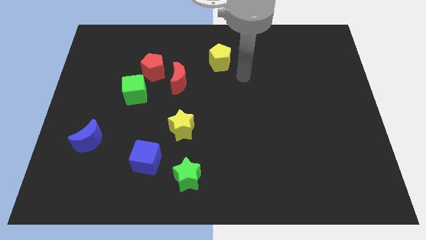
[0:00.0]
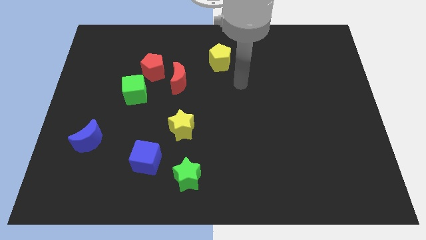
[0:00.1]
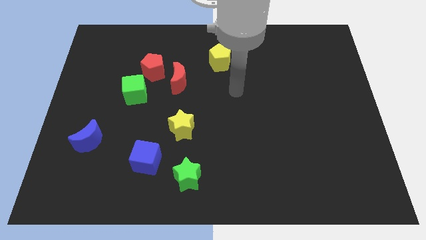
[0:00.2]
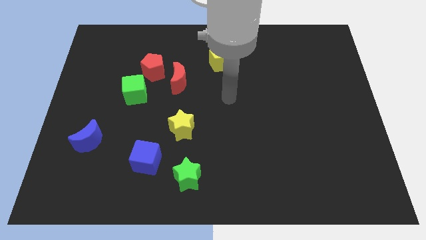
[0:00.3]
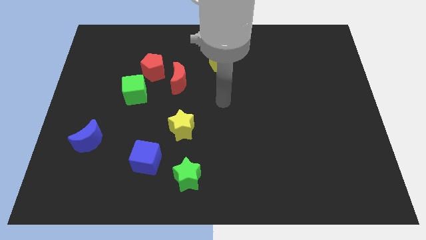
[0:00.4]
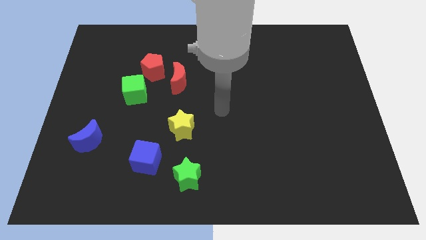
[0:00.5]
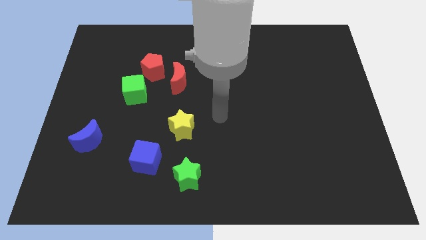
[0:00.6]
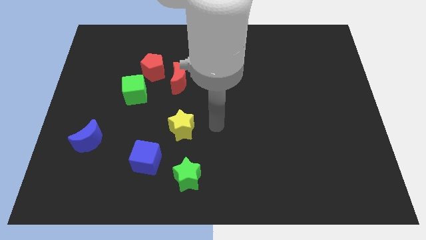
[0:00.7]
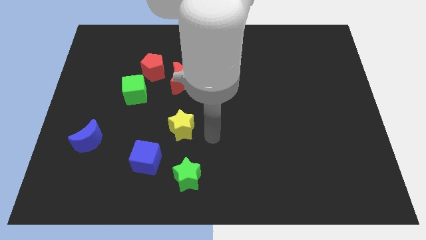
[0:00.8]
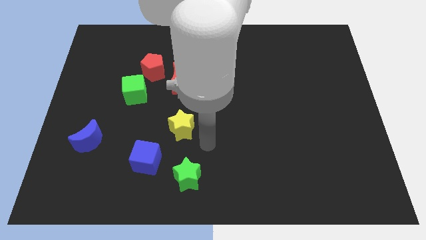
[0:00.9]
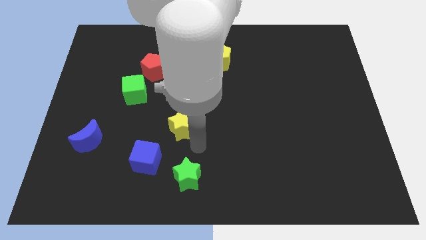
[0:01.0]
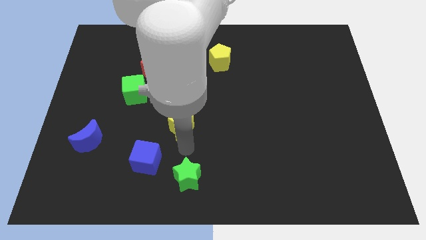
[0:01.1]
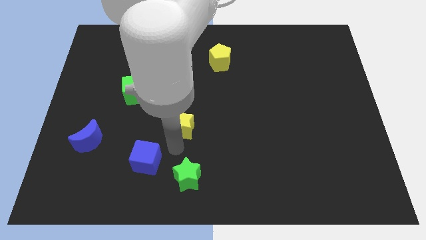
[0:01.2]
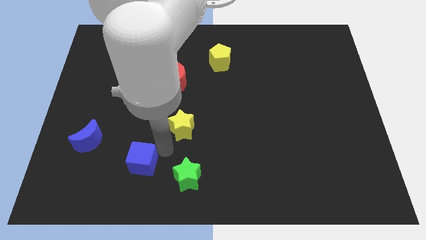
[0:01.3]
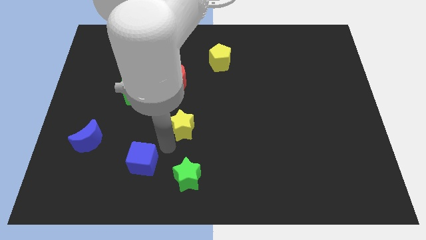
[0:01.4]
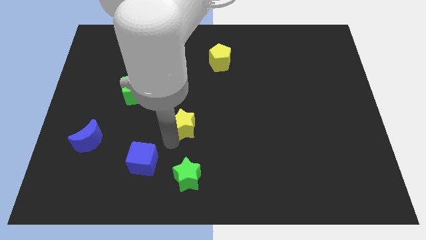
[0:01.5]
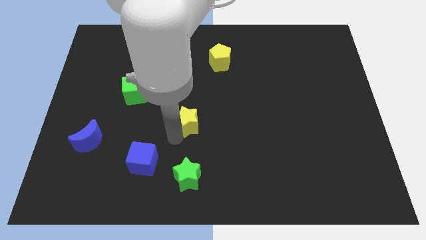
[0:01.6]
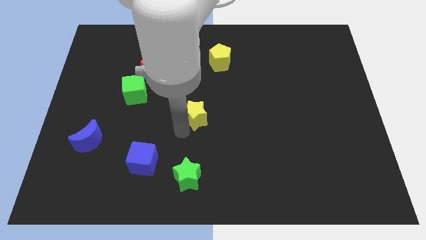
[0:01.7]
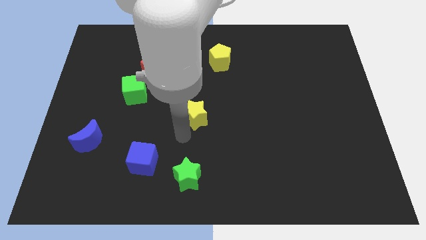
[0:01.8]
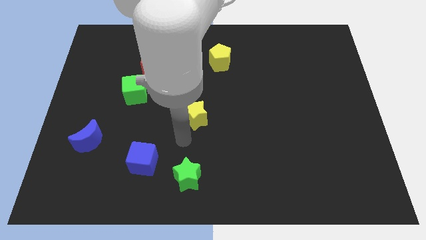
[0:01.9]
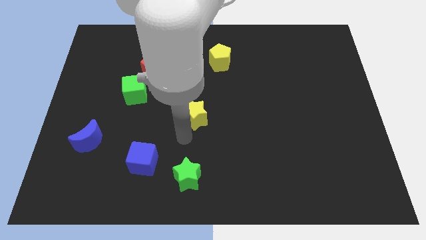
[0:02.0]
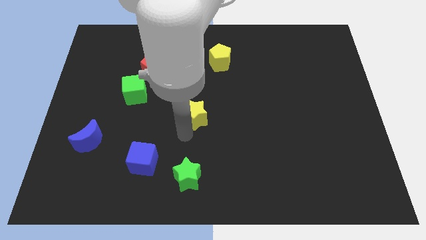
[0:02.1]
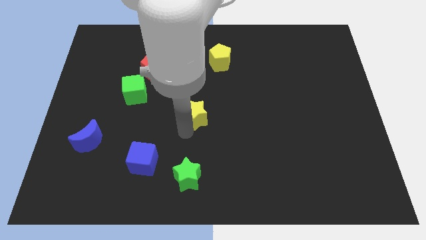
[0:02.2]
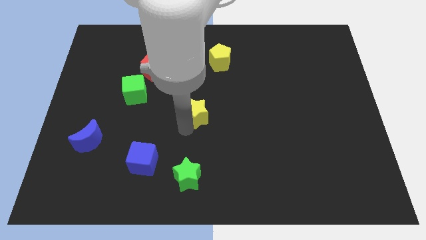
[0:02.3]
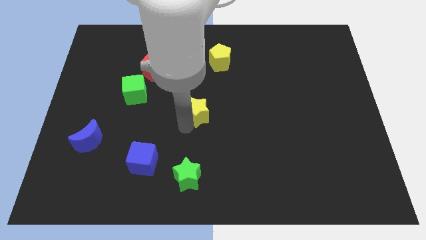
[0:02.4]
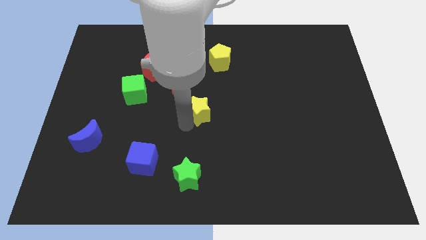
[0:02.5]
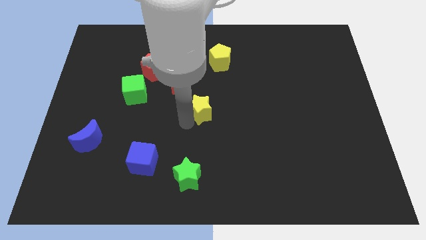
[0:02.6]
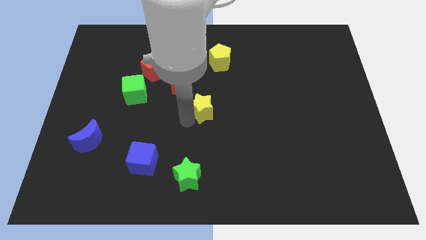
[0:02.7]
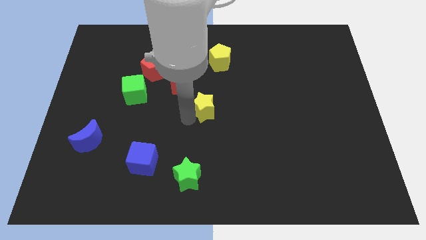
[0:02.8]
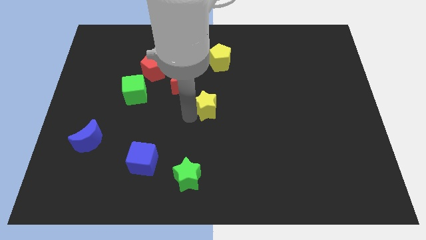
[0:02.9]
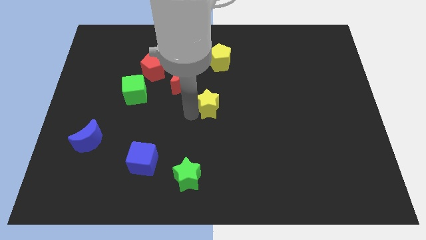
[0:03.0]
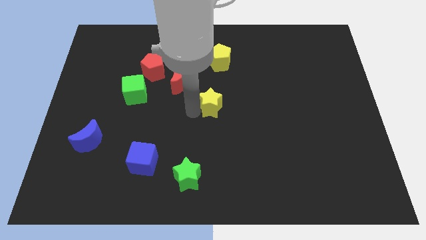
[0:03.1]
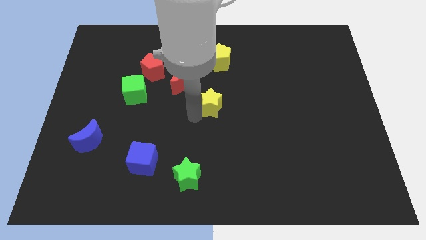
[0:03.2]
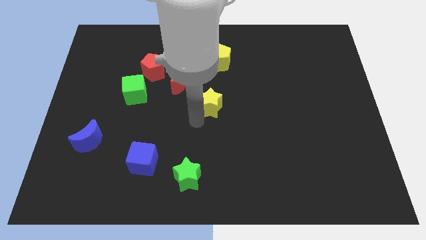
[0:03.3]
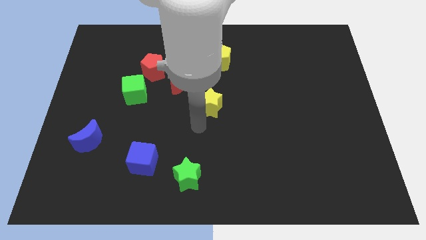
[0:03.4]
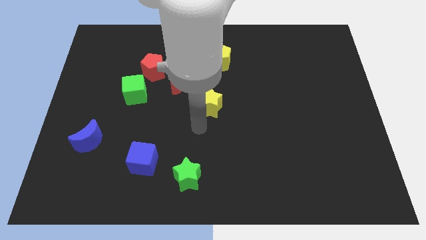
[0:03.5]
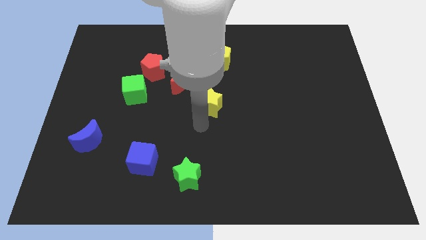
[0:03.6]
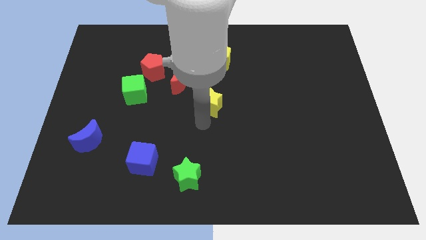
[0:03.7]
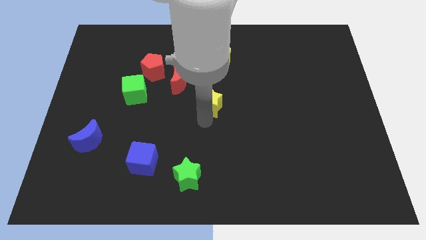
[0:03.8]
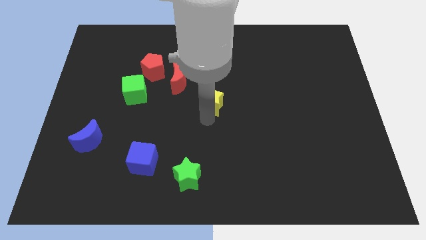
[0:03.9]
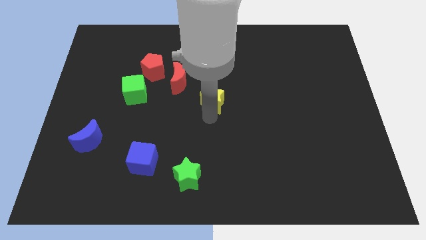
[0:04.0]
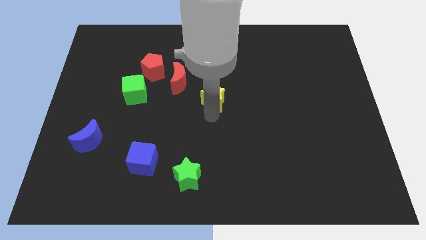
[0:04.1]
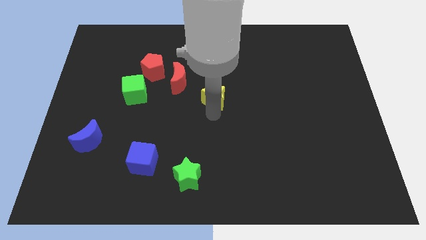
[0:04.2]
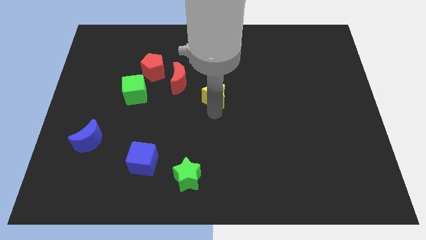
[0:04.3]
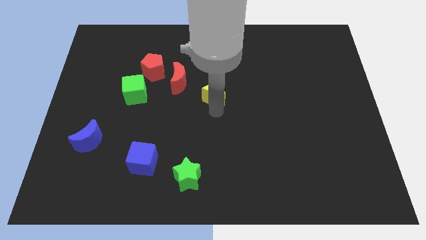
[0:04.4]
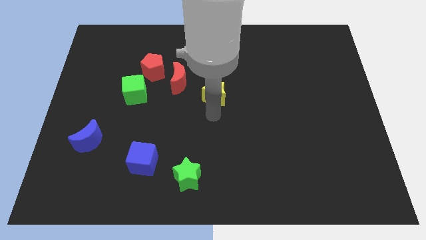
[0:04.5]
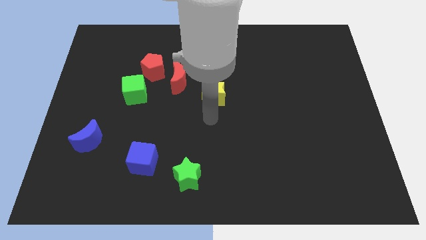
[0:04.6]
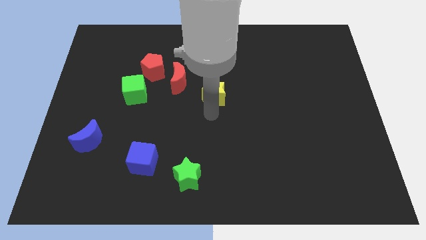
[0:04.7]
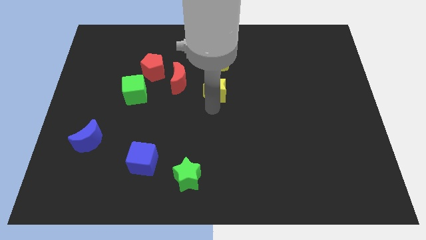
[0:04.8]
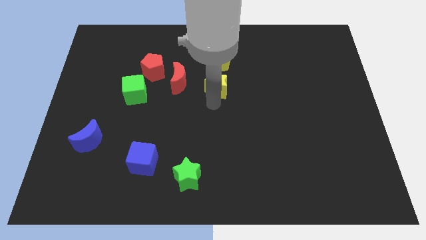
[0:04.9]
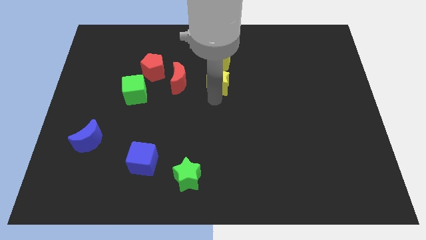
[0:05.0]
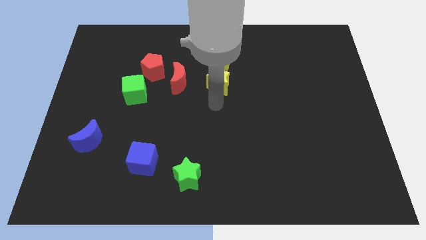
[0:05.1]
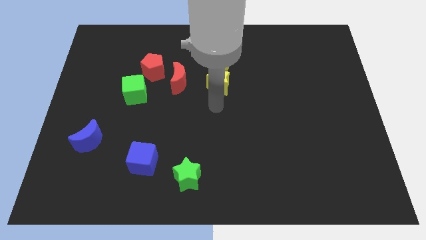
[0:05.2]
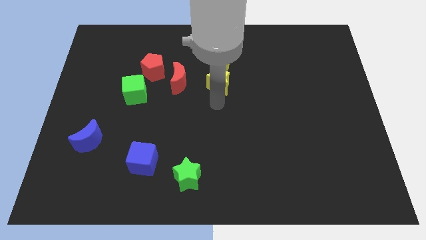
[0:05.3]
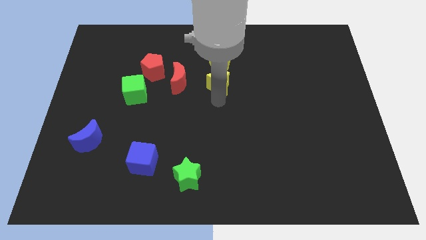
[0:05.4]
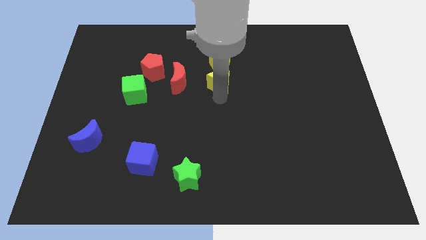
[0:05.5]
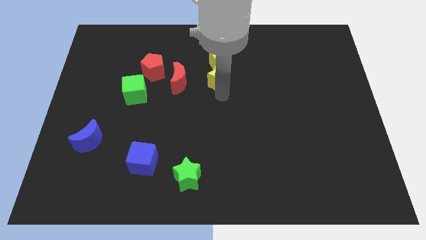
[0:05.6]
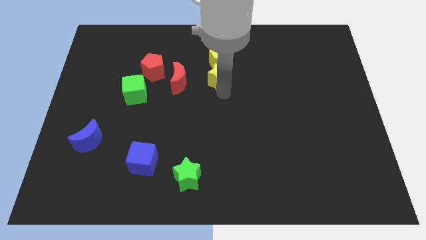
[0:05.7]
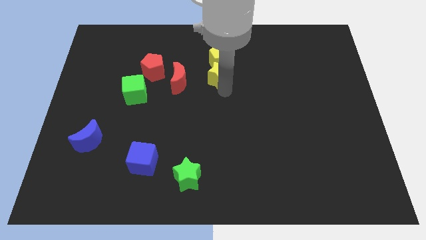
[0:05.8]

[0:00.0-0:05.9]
put the yellow star next to the yellow pentagon

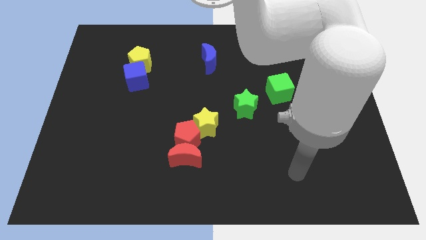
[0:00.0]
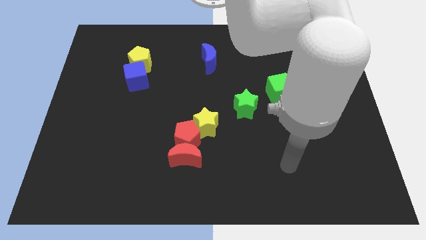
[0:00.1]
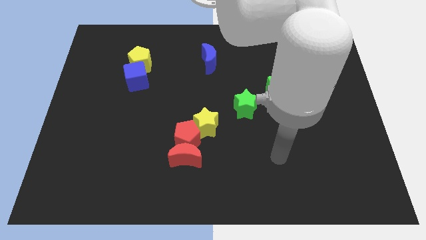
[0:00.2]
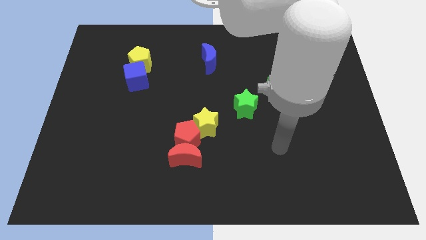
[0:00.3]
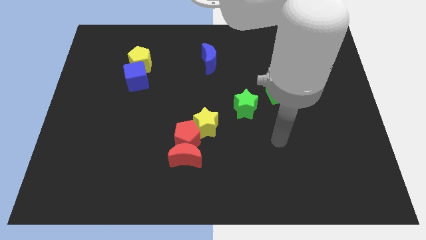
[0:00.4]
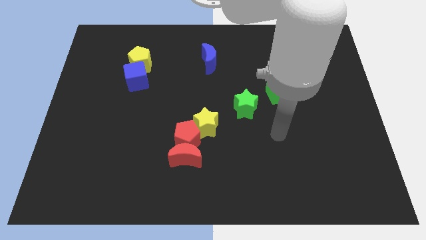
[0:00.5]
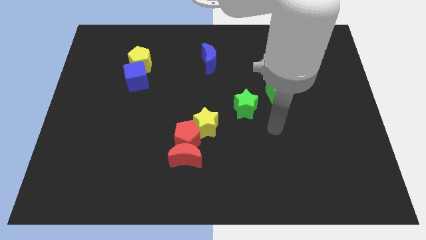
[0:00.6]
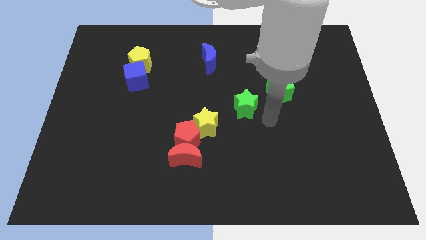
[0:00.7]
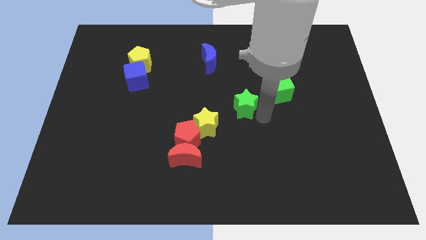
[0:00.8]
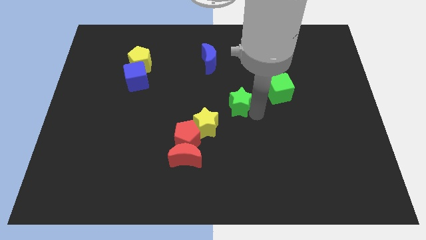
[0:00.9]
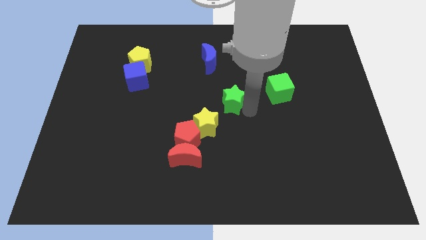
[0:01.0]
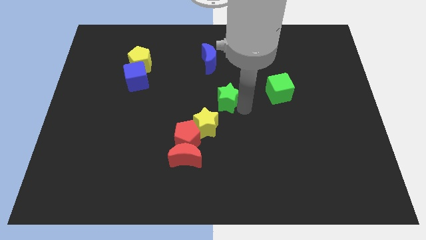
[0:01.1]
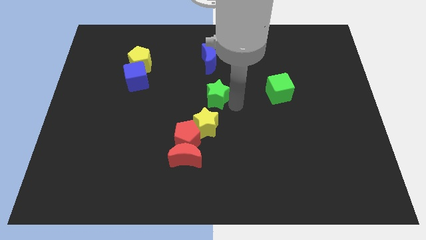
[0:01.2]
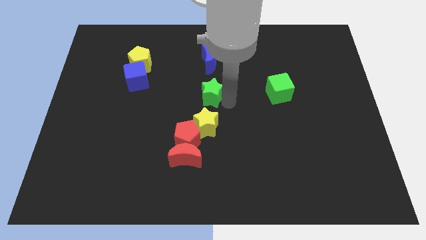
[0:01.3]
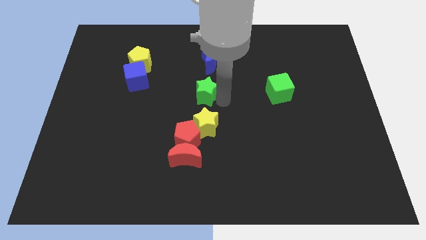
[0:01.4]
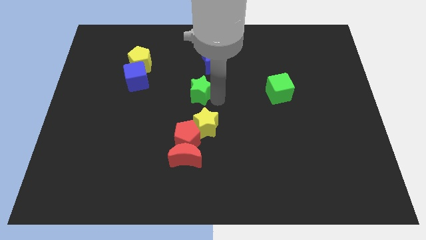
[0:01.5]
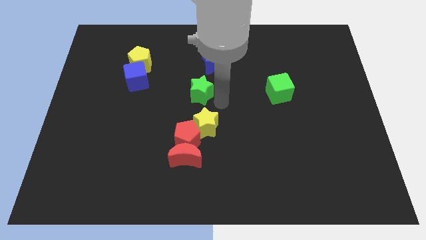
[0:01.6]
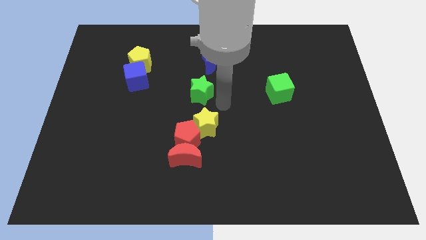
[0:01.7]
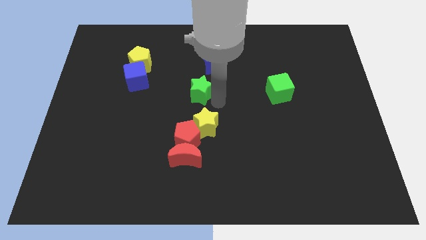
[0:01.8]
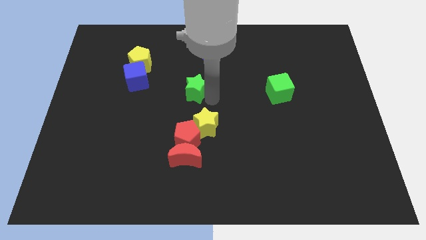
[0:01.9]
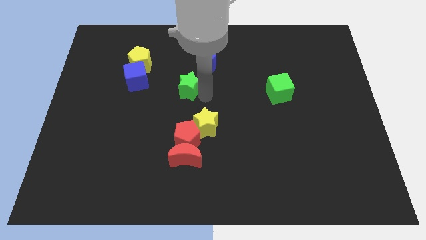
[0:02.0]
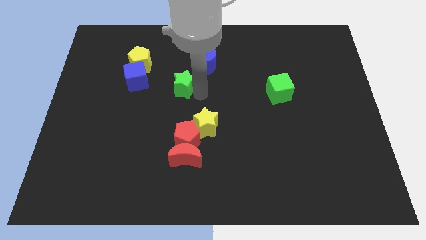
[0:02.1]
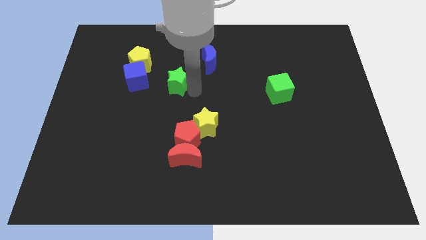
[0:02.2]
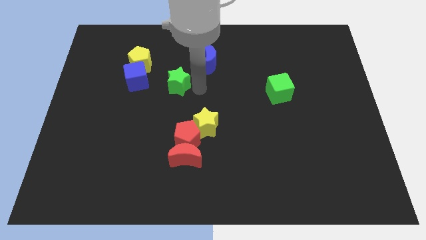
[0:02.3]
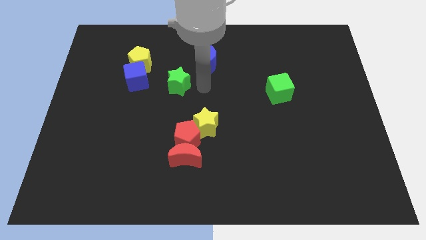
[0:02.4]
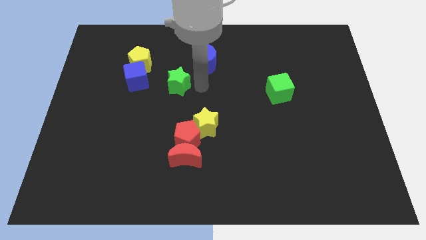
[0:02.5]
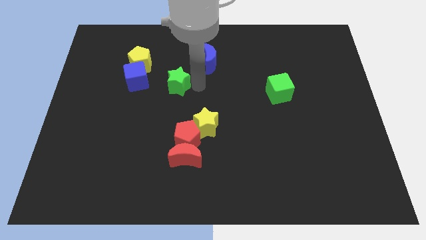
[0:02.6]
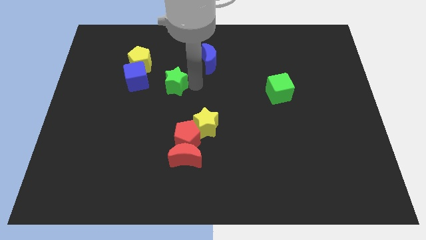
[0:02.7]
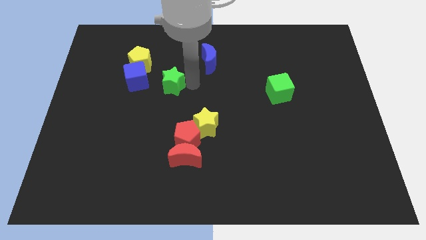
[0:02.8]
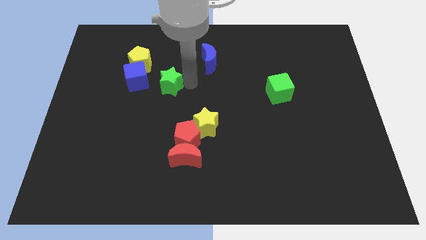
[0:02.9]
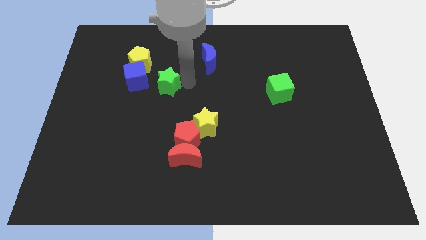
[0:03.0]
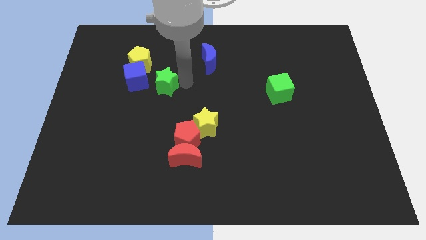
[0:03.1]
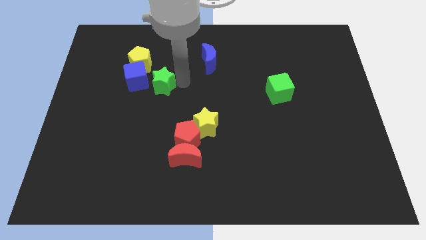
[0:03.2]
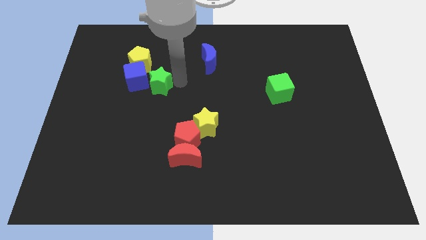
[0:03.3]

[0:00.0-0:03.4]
put the green star towards the blue cube
